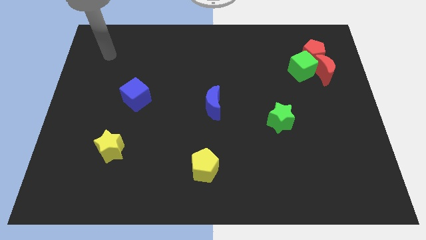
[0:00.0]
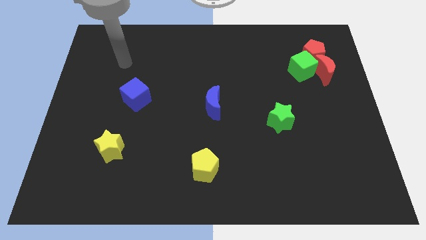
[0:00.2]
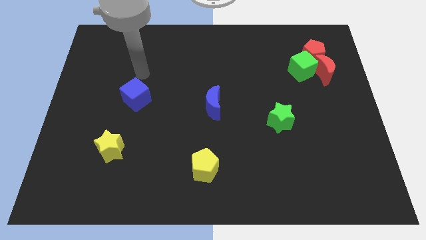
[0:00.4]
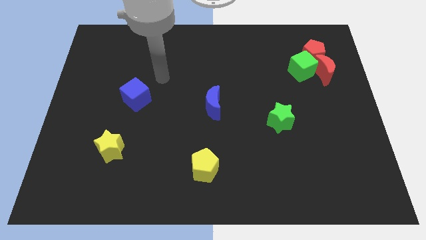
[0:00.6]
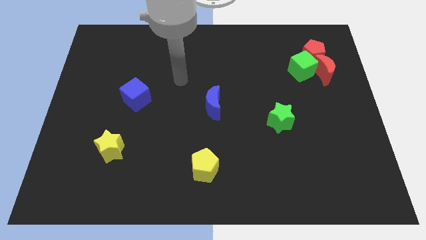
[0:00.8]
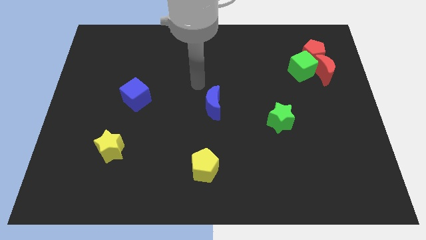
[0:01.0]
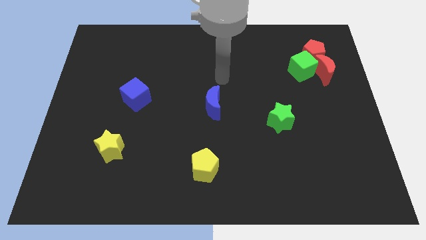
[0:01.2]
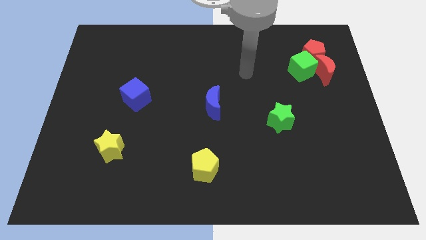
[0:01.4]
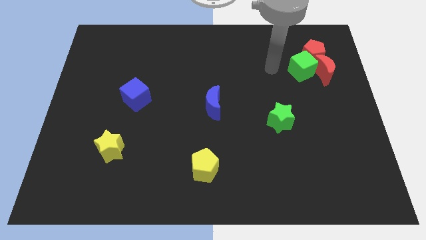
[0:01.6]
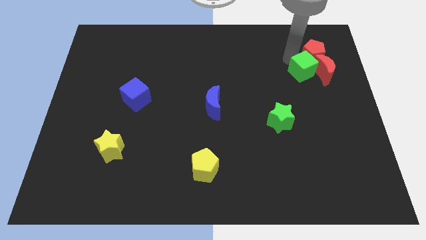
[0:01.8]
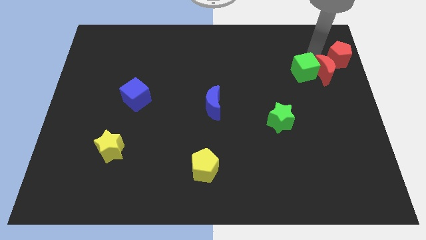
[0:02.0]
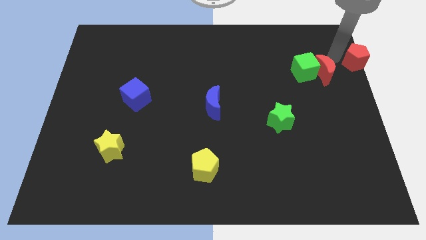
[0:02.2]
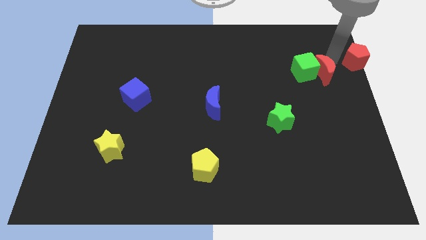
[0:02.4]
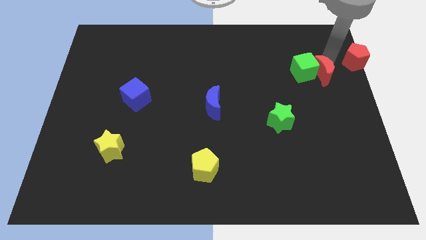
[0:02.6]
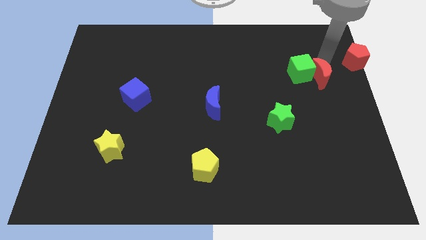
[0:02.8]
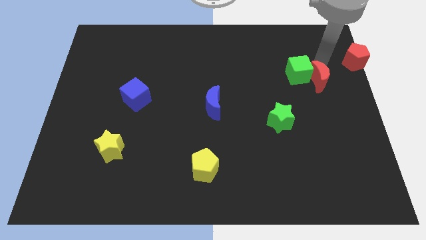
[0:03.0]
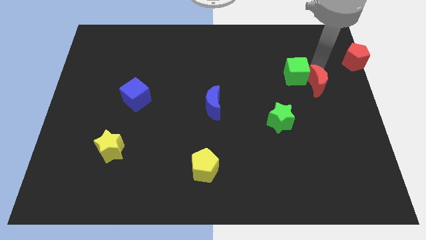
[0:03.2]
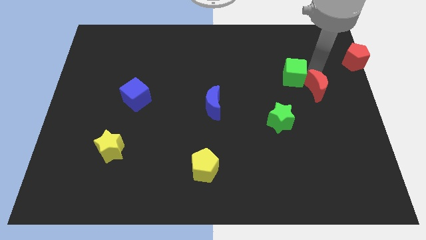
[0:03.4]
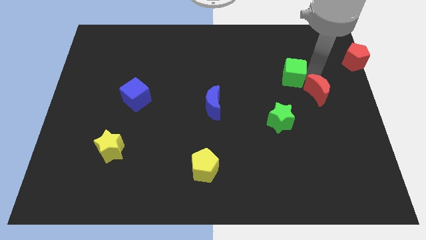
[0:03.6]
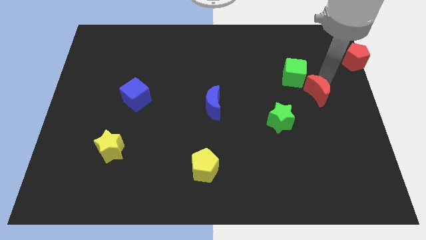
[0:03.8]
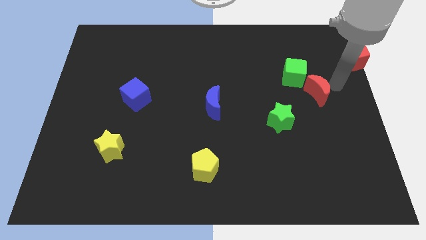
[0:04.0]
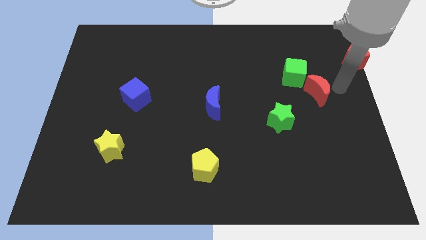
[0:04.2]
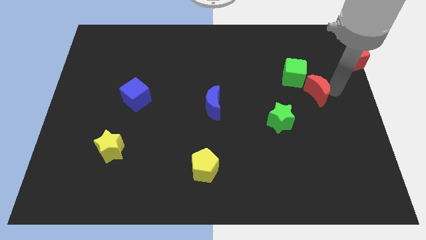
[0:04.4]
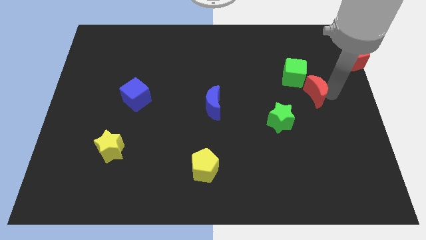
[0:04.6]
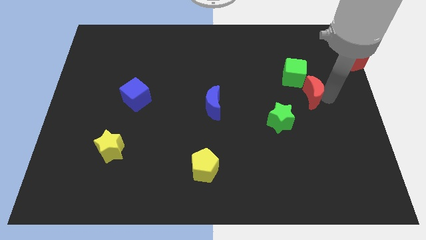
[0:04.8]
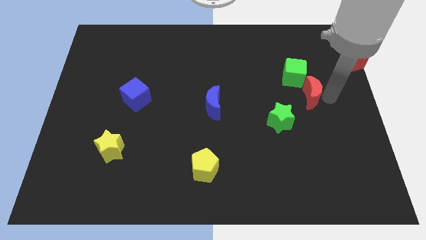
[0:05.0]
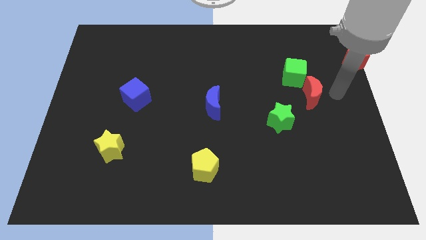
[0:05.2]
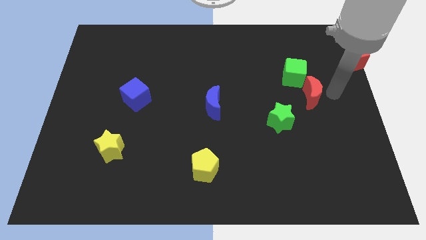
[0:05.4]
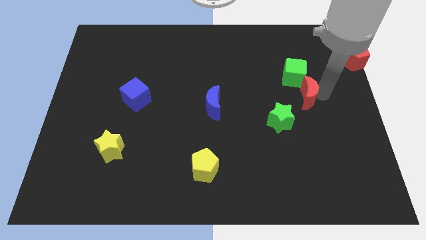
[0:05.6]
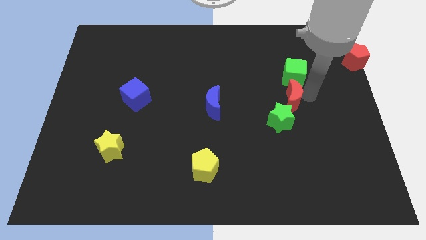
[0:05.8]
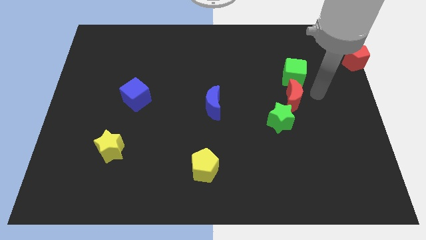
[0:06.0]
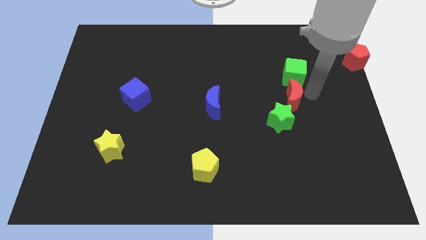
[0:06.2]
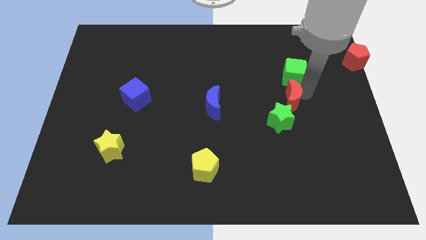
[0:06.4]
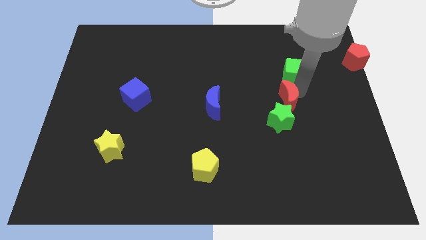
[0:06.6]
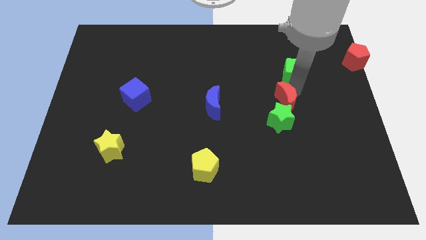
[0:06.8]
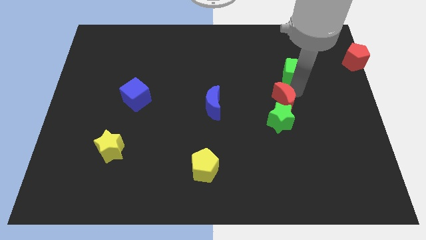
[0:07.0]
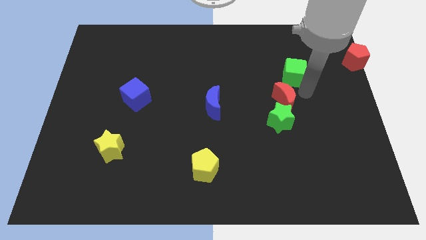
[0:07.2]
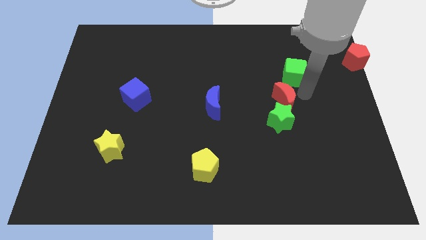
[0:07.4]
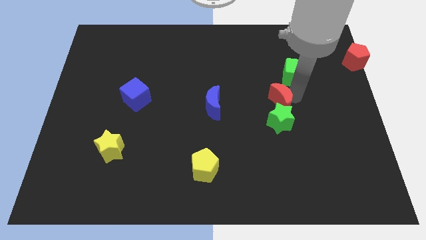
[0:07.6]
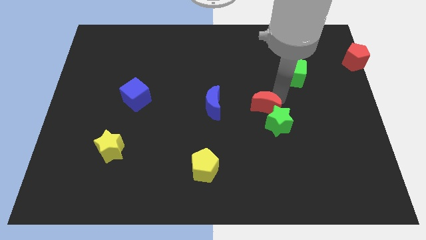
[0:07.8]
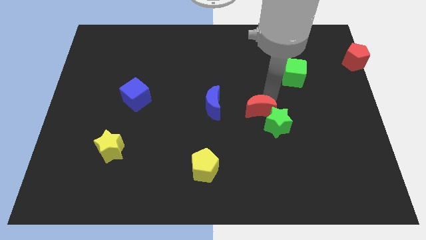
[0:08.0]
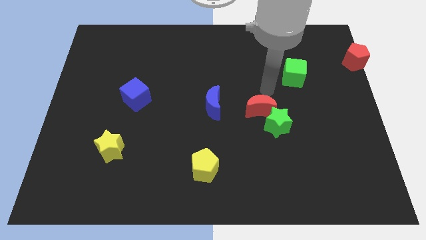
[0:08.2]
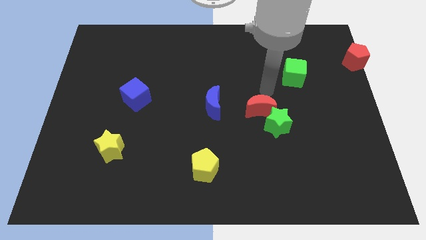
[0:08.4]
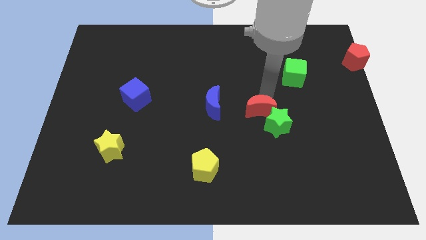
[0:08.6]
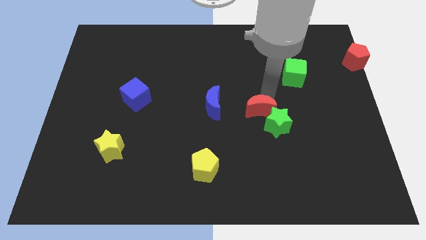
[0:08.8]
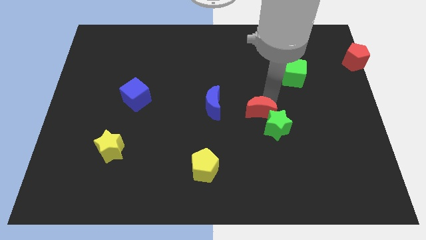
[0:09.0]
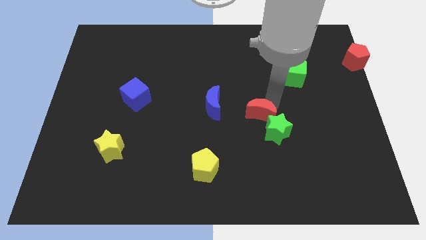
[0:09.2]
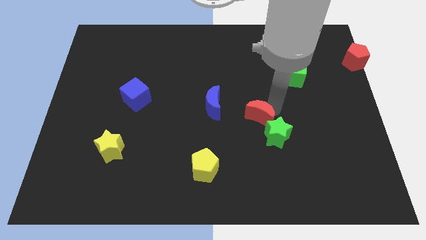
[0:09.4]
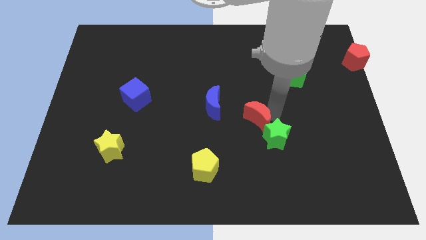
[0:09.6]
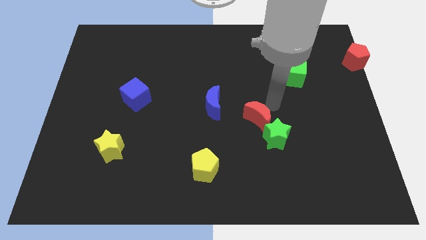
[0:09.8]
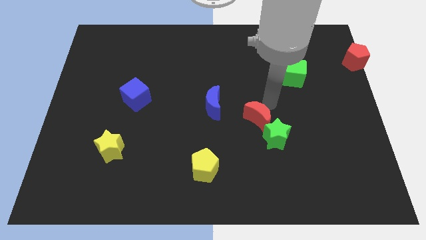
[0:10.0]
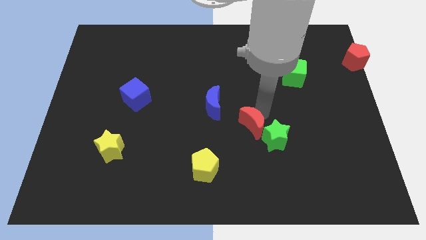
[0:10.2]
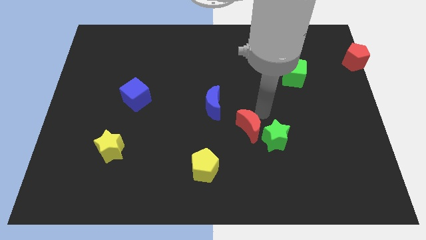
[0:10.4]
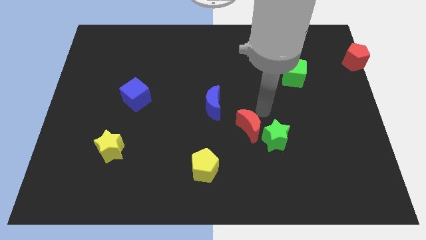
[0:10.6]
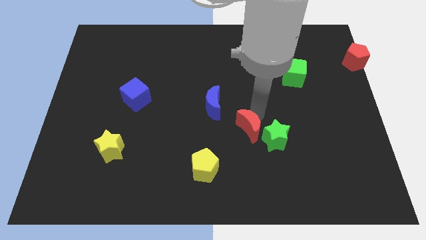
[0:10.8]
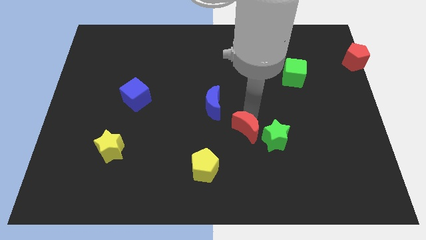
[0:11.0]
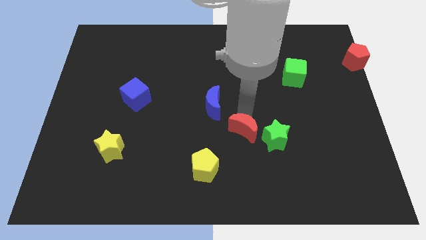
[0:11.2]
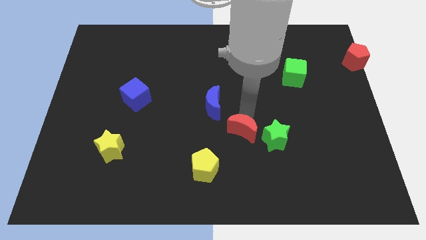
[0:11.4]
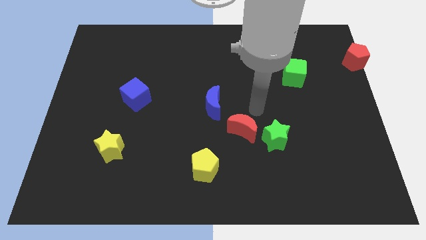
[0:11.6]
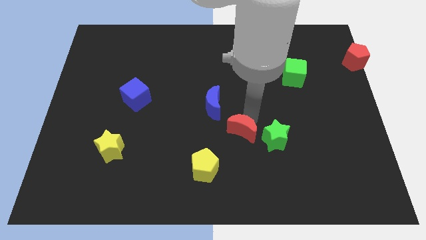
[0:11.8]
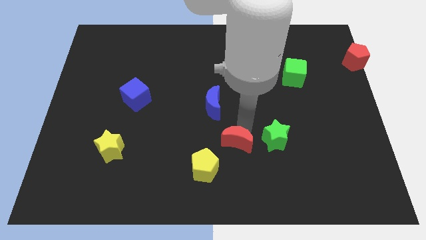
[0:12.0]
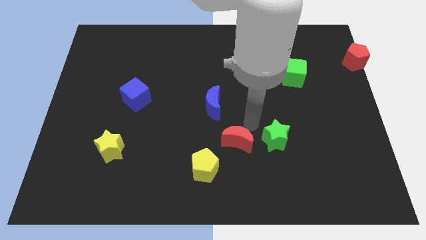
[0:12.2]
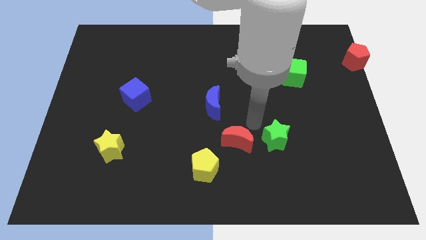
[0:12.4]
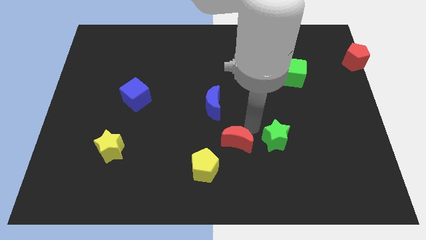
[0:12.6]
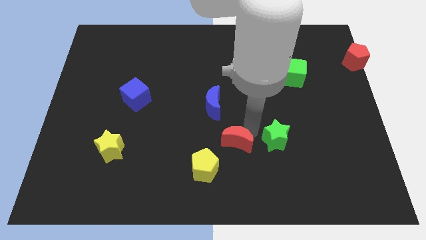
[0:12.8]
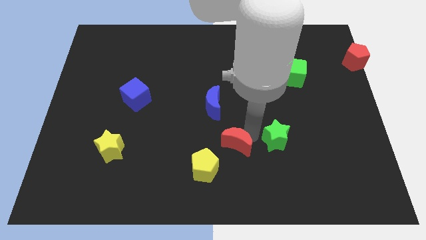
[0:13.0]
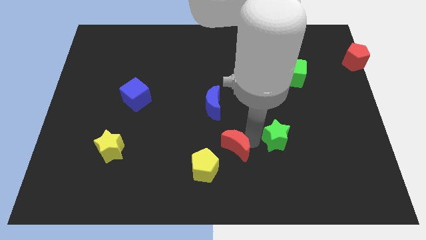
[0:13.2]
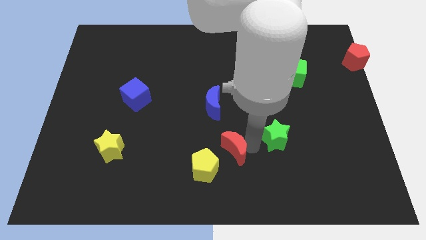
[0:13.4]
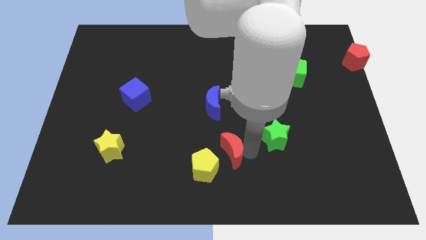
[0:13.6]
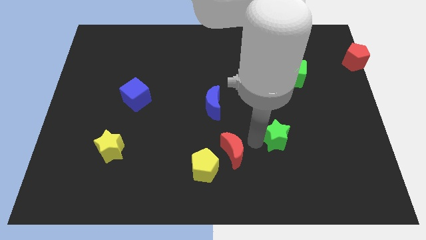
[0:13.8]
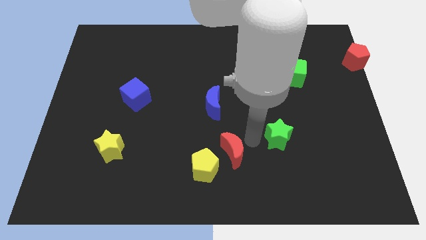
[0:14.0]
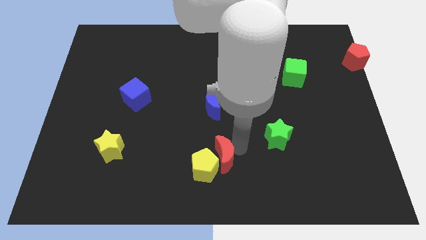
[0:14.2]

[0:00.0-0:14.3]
put the red moon close to the yellow pentagon

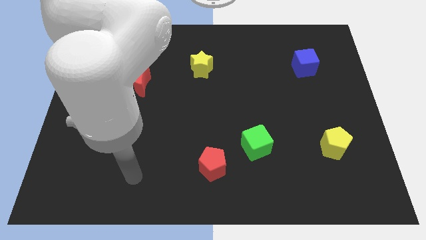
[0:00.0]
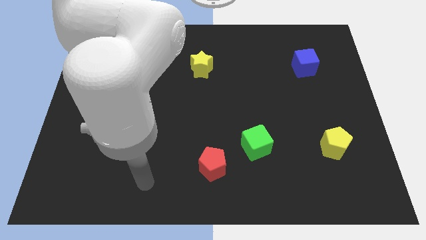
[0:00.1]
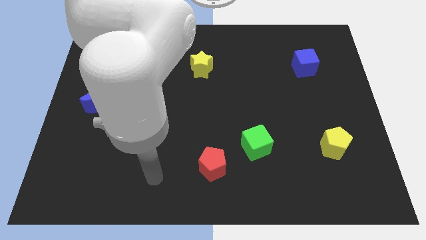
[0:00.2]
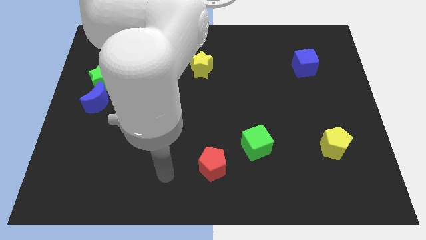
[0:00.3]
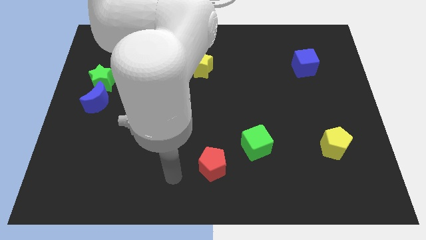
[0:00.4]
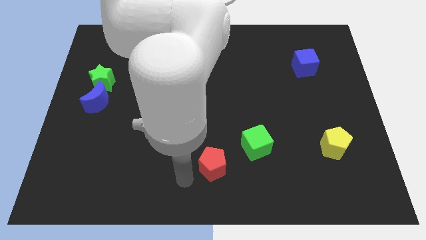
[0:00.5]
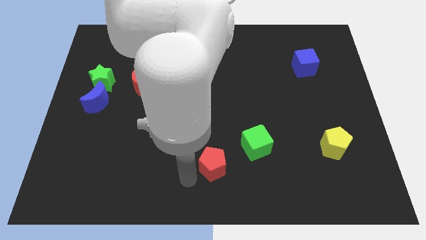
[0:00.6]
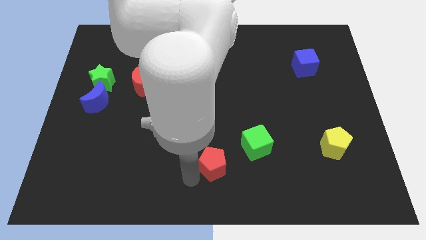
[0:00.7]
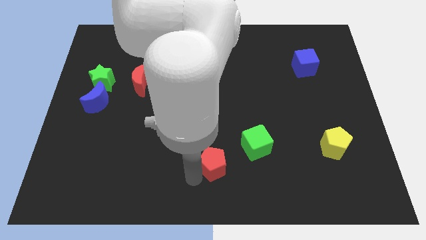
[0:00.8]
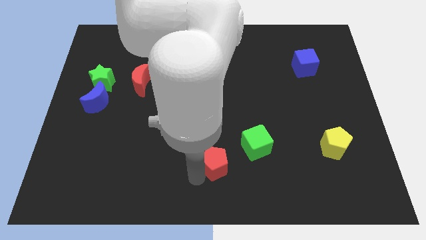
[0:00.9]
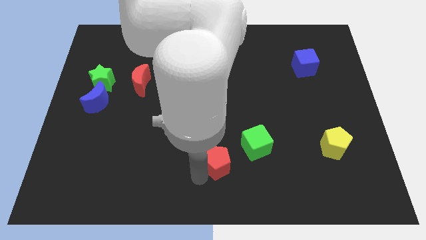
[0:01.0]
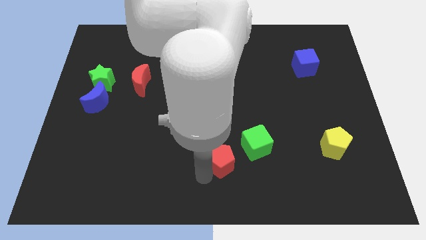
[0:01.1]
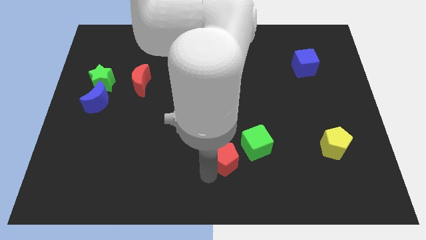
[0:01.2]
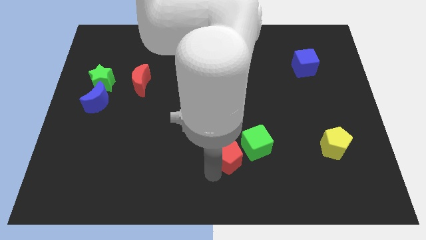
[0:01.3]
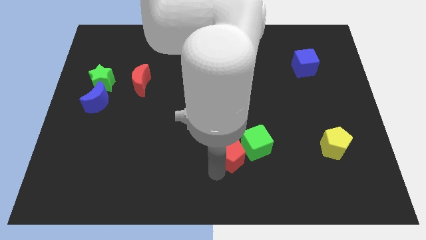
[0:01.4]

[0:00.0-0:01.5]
push the red pentagon close to the green cube
